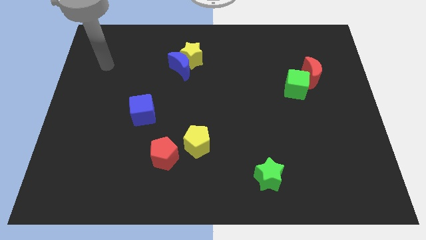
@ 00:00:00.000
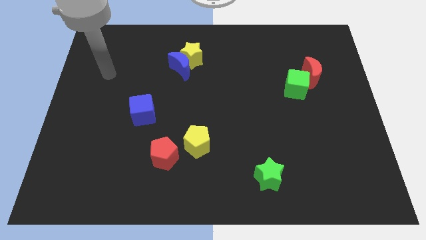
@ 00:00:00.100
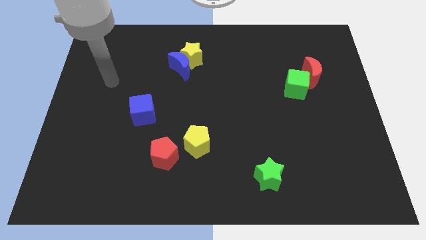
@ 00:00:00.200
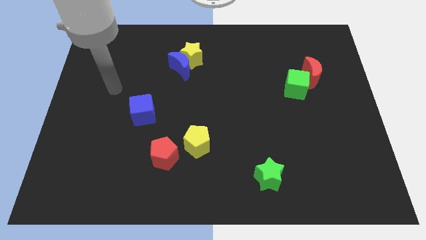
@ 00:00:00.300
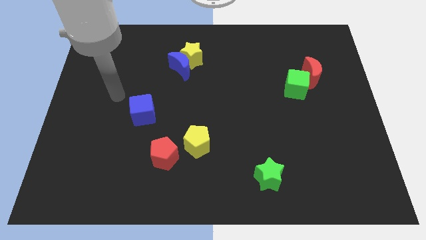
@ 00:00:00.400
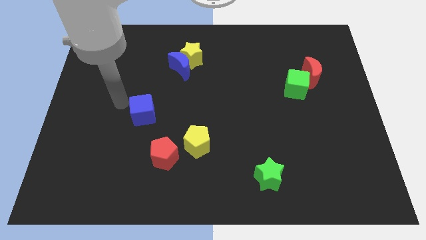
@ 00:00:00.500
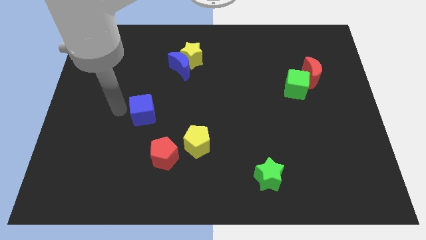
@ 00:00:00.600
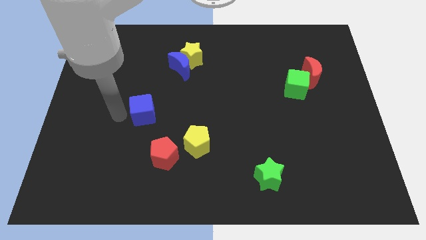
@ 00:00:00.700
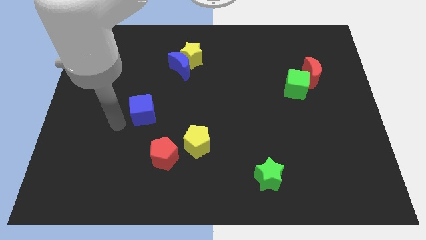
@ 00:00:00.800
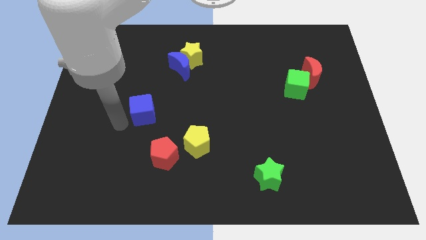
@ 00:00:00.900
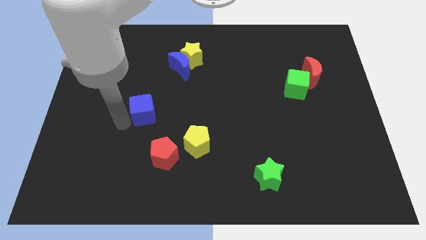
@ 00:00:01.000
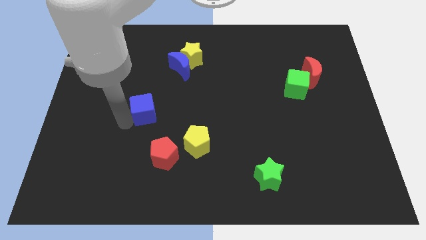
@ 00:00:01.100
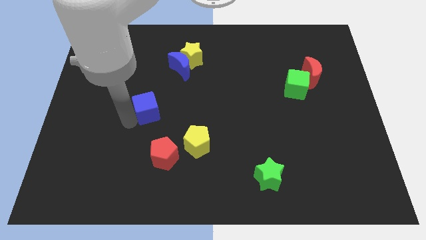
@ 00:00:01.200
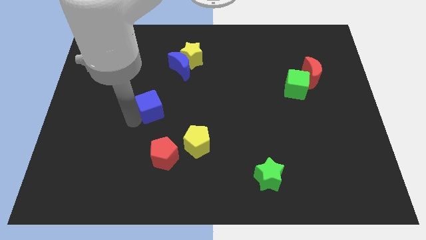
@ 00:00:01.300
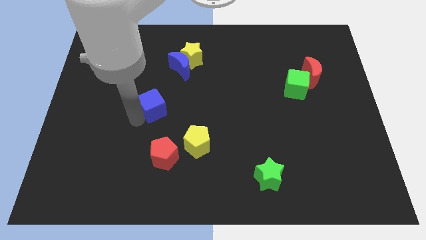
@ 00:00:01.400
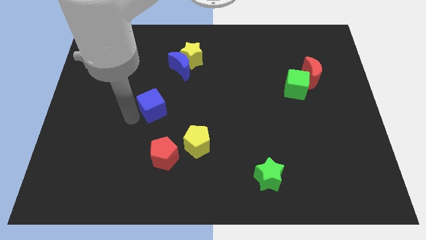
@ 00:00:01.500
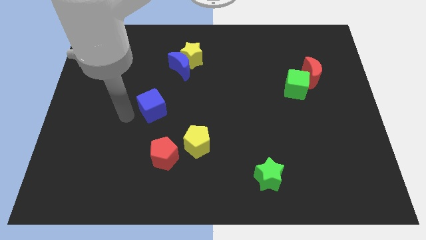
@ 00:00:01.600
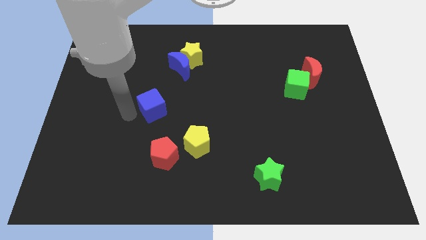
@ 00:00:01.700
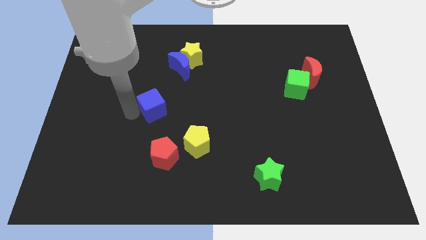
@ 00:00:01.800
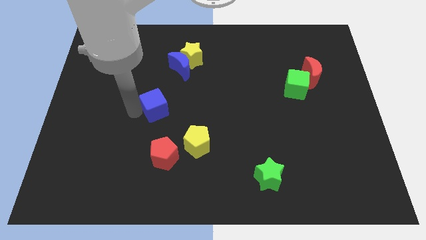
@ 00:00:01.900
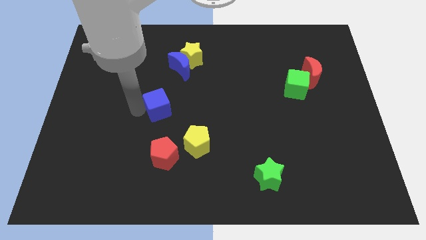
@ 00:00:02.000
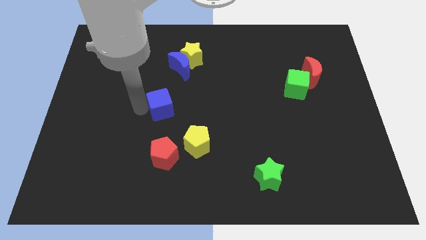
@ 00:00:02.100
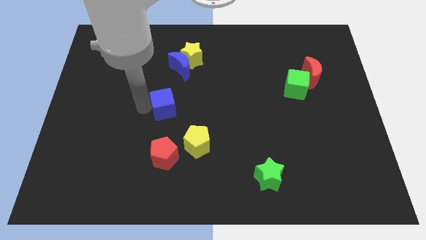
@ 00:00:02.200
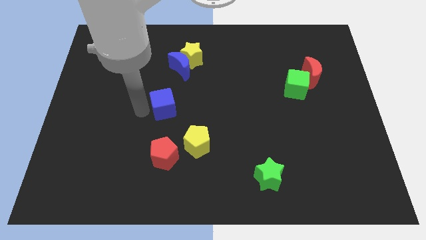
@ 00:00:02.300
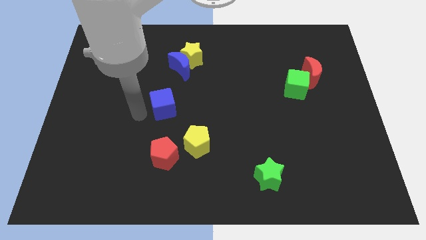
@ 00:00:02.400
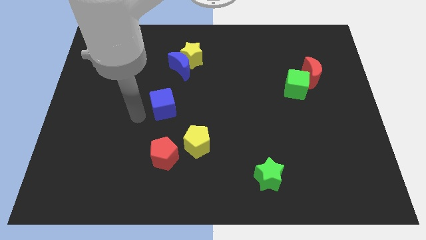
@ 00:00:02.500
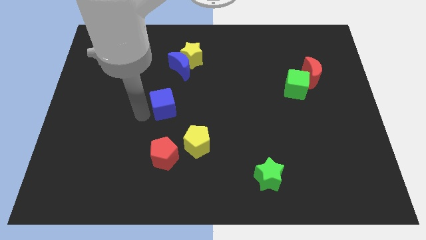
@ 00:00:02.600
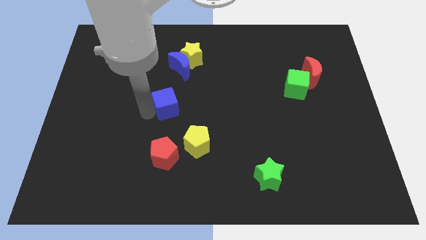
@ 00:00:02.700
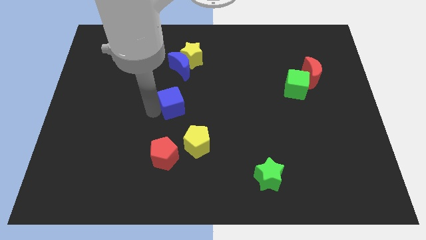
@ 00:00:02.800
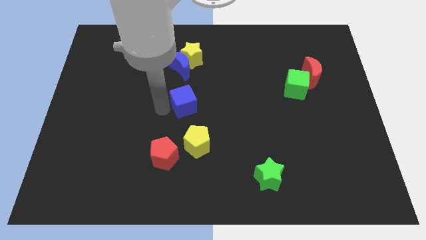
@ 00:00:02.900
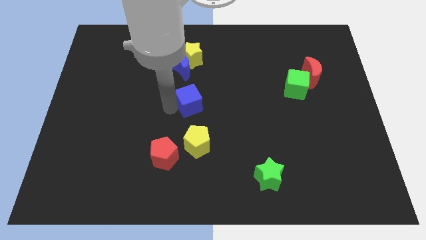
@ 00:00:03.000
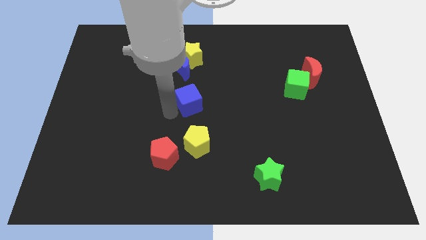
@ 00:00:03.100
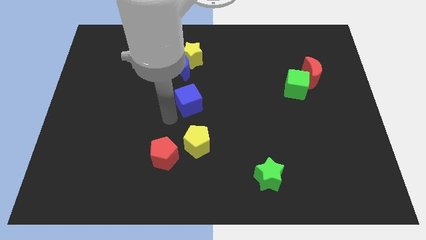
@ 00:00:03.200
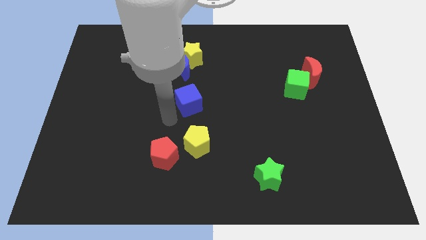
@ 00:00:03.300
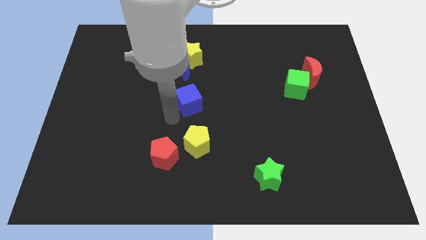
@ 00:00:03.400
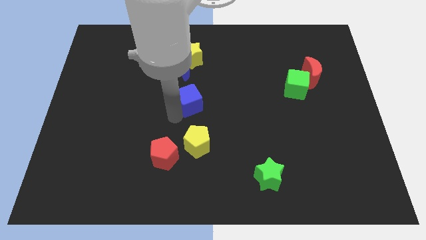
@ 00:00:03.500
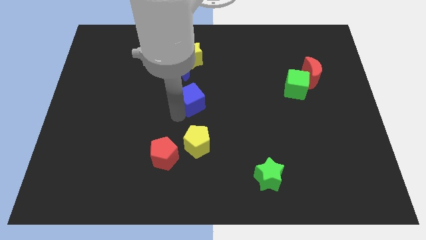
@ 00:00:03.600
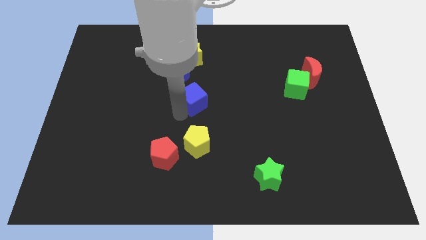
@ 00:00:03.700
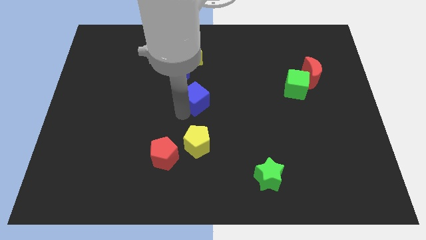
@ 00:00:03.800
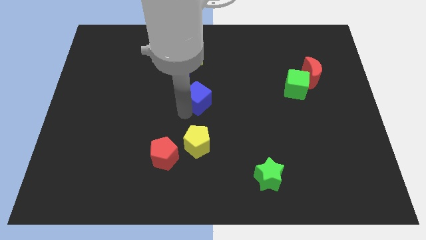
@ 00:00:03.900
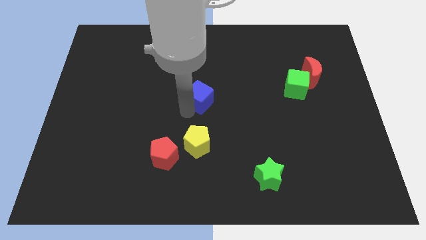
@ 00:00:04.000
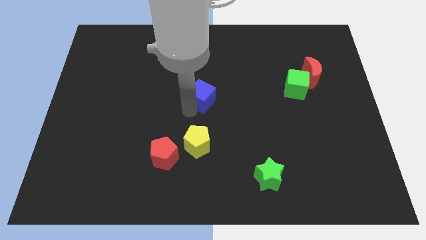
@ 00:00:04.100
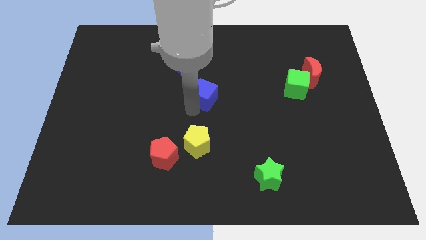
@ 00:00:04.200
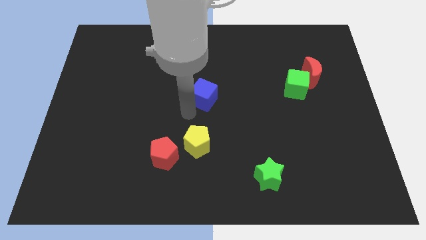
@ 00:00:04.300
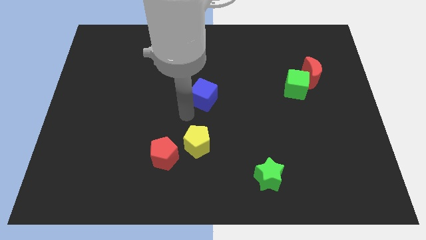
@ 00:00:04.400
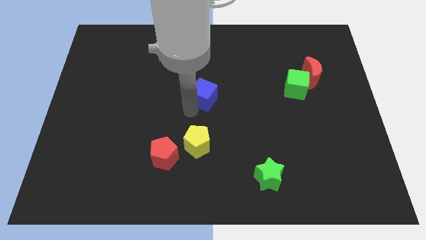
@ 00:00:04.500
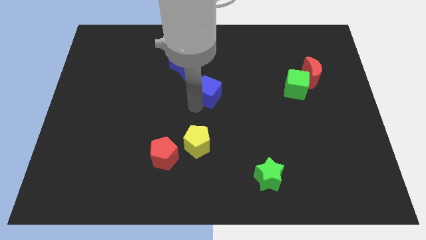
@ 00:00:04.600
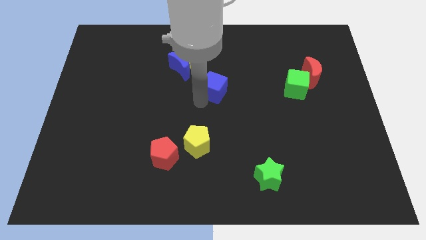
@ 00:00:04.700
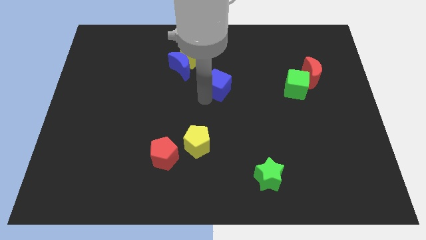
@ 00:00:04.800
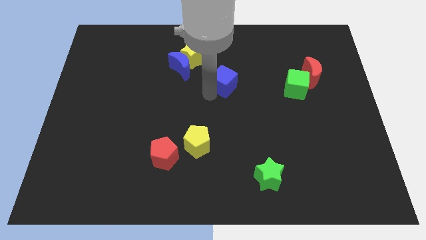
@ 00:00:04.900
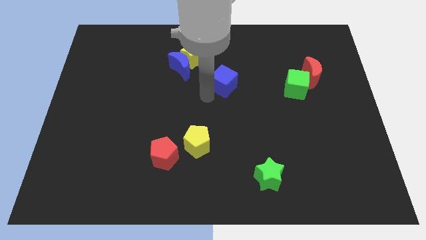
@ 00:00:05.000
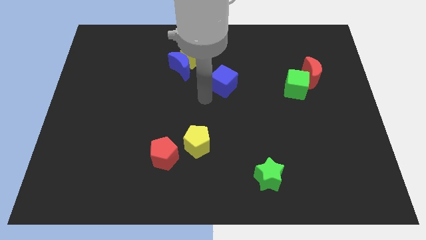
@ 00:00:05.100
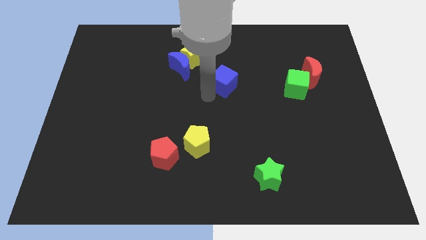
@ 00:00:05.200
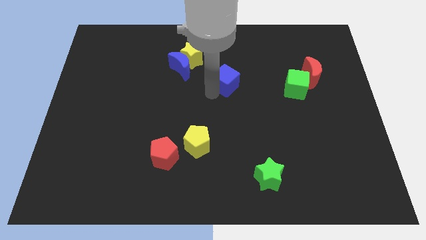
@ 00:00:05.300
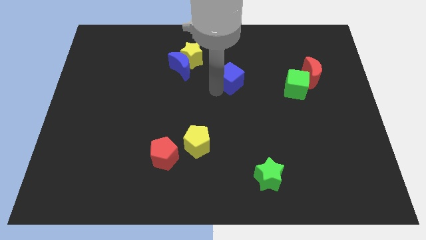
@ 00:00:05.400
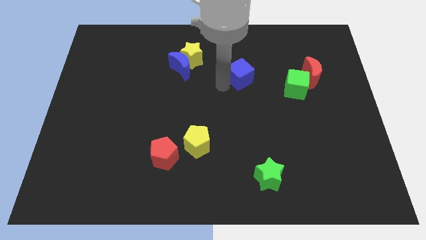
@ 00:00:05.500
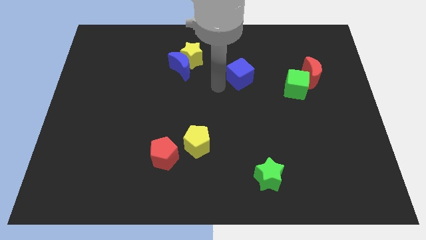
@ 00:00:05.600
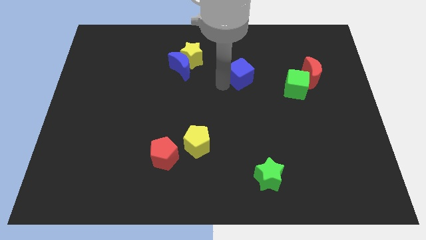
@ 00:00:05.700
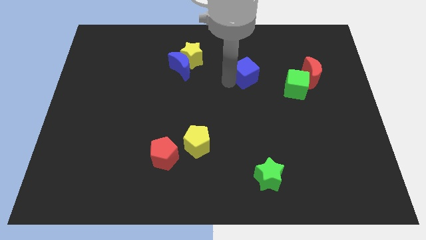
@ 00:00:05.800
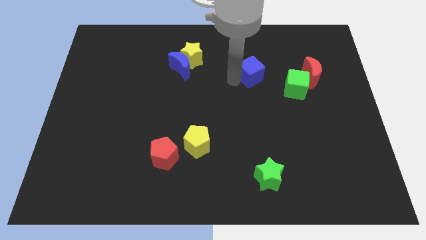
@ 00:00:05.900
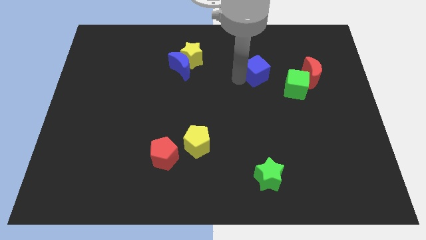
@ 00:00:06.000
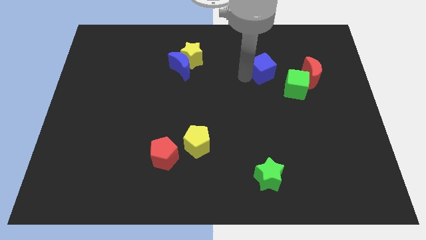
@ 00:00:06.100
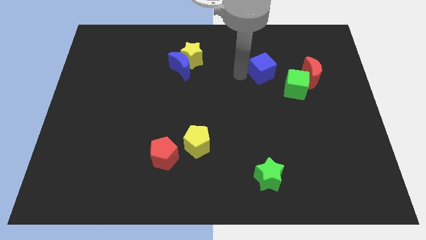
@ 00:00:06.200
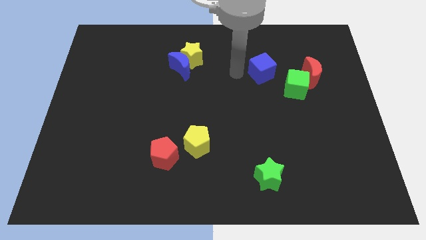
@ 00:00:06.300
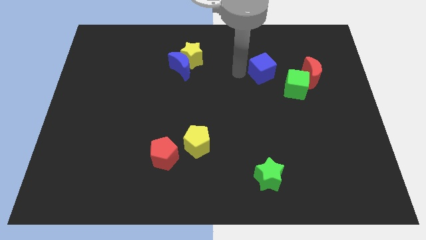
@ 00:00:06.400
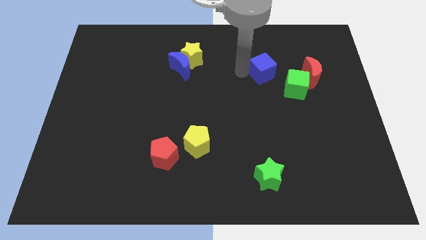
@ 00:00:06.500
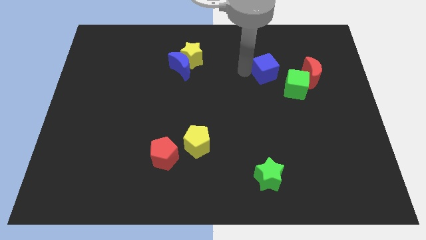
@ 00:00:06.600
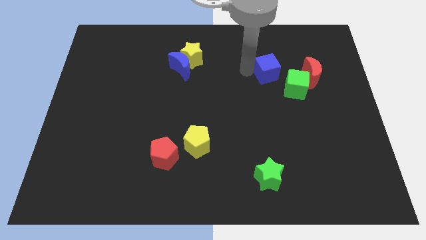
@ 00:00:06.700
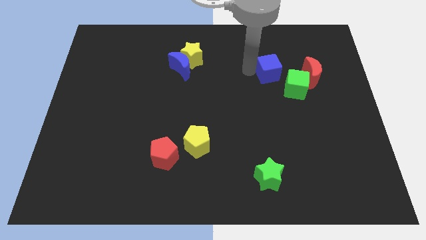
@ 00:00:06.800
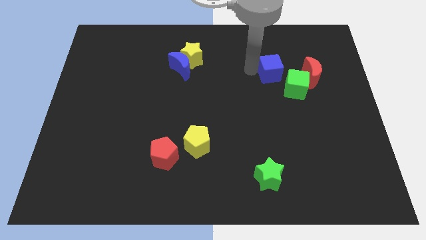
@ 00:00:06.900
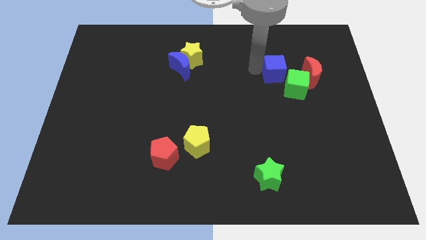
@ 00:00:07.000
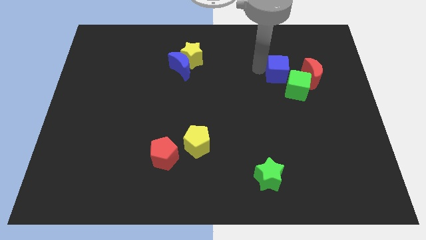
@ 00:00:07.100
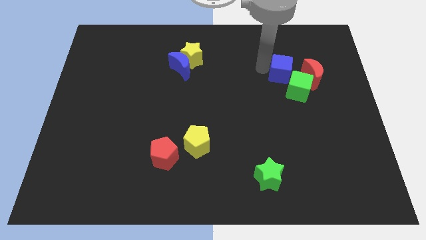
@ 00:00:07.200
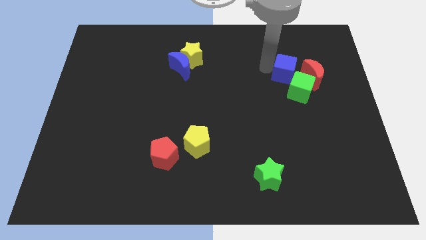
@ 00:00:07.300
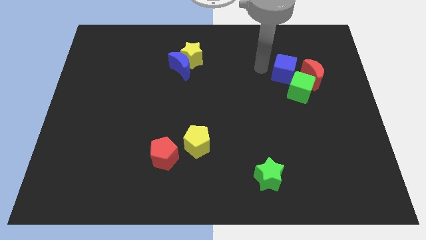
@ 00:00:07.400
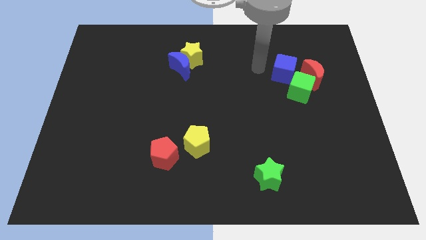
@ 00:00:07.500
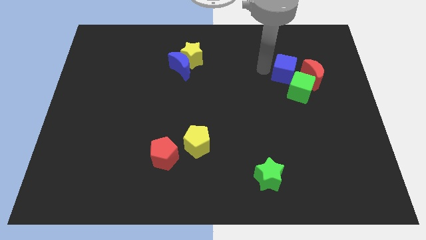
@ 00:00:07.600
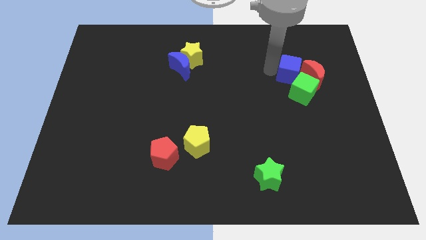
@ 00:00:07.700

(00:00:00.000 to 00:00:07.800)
push the blue cube next to the red moon
